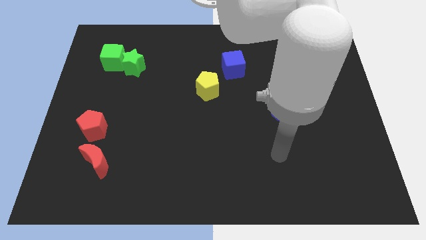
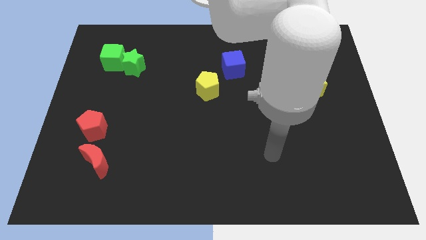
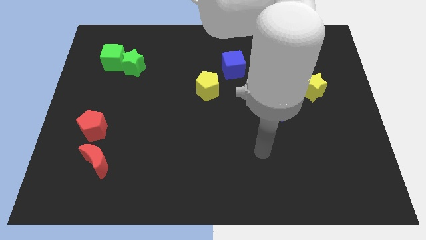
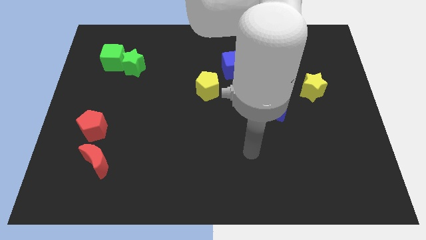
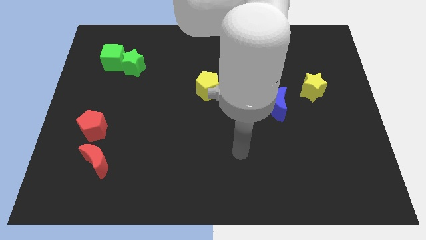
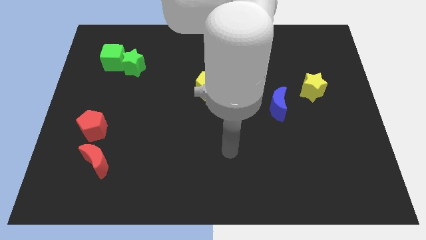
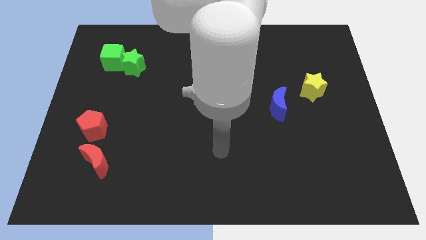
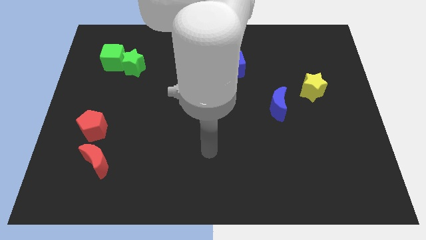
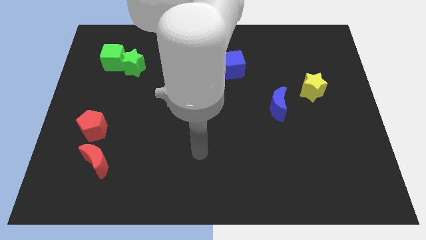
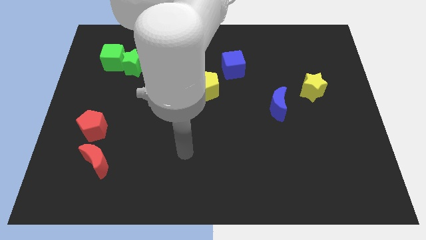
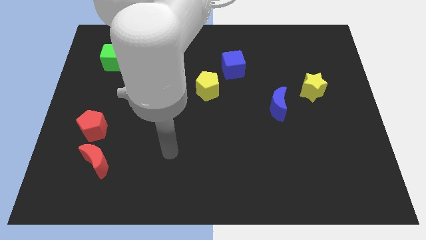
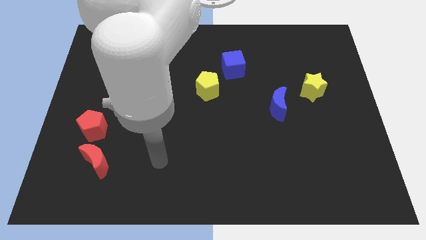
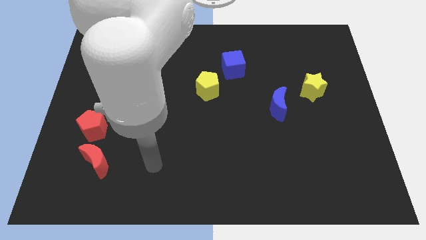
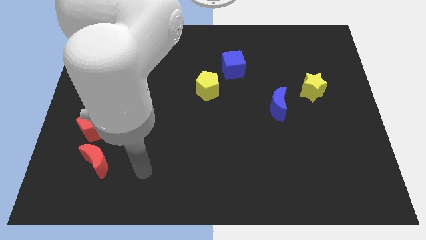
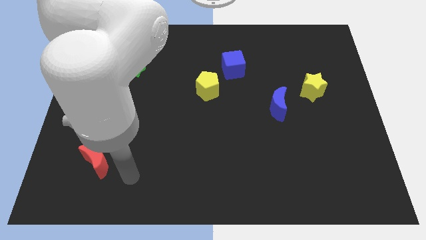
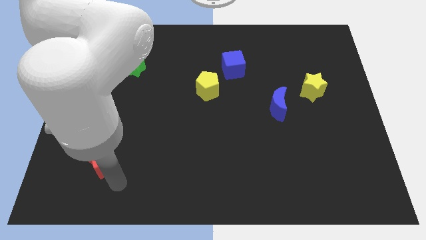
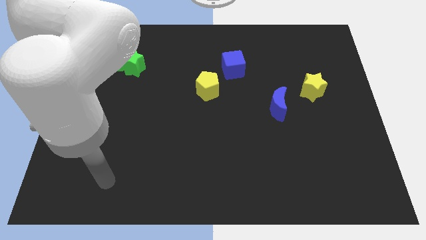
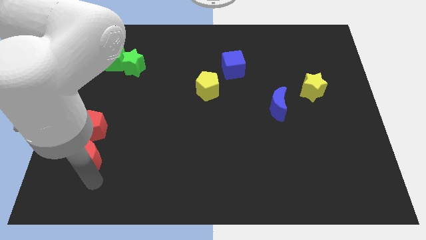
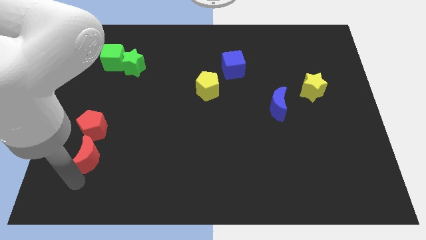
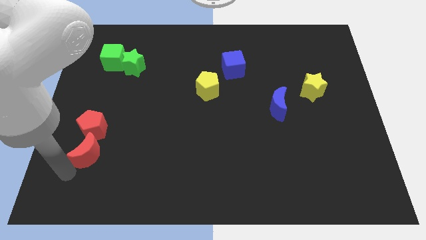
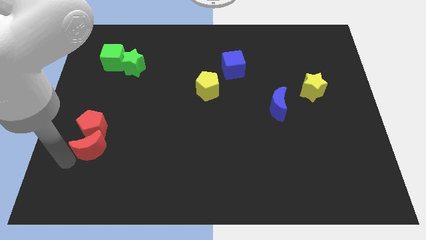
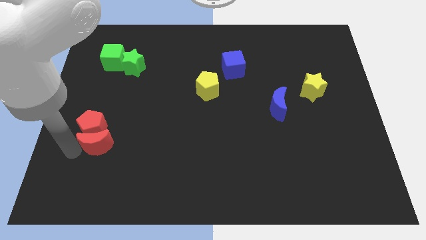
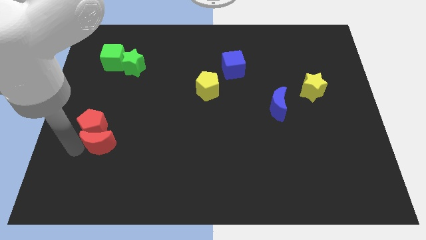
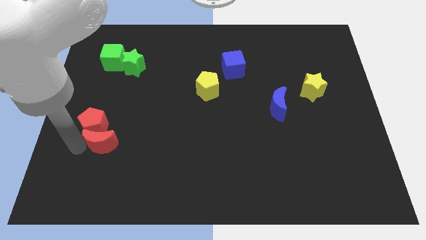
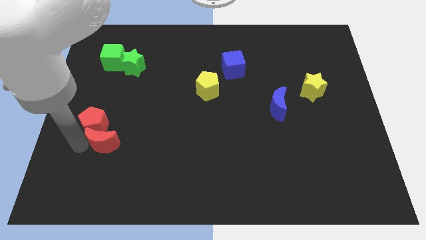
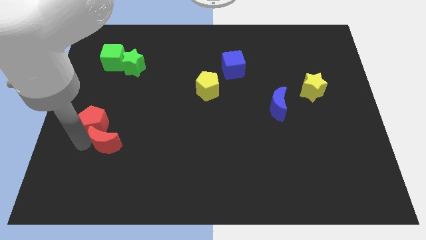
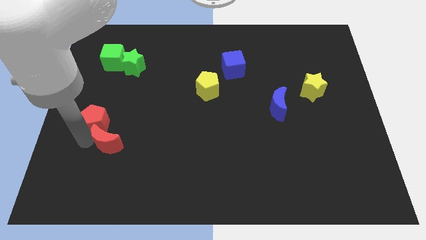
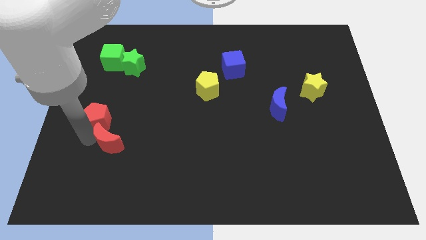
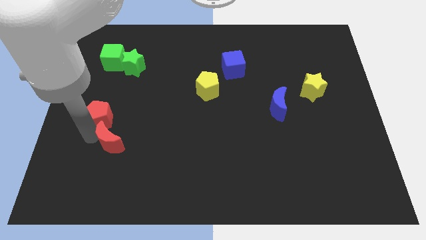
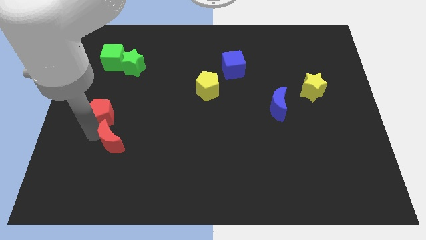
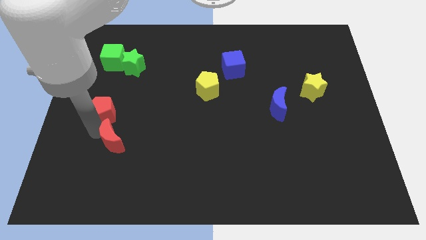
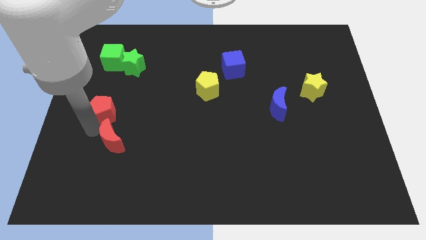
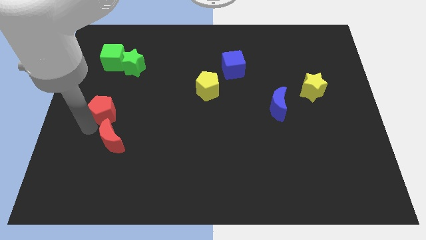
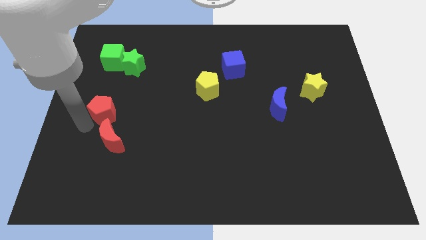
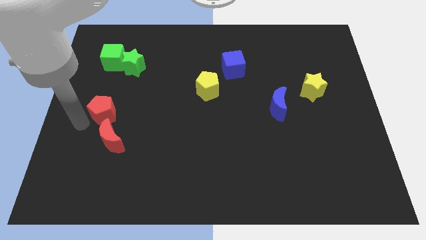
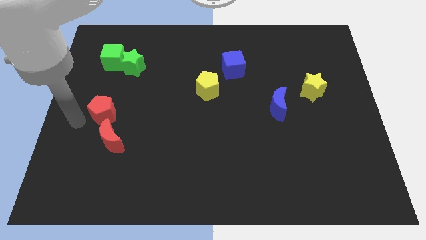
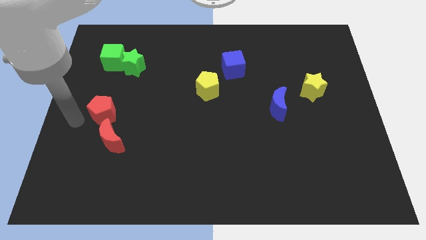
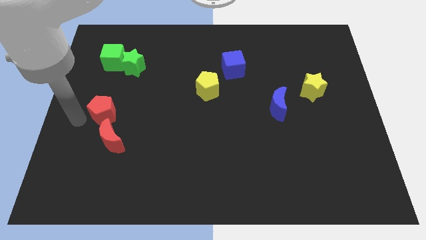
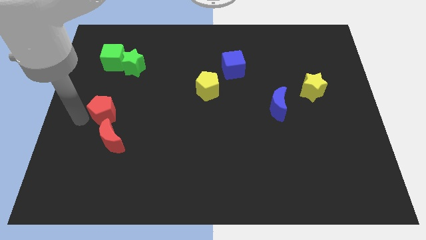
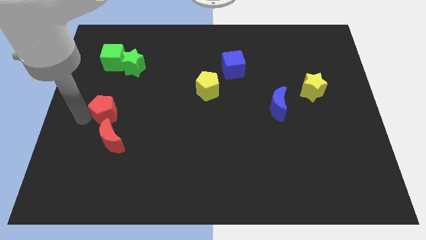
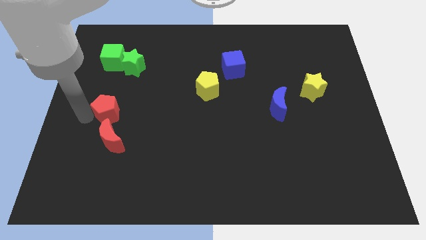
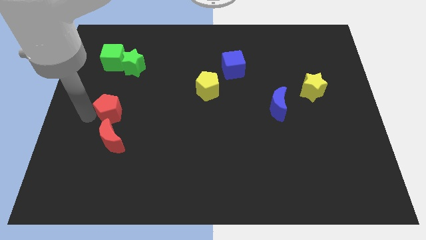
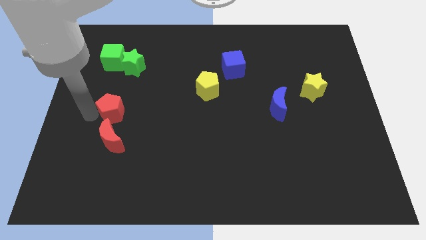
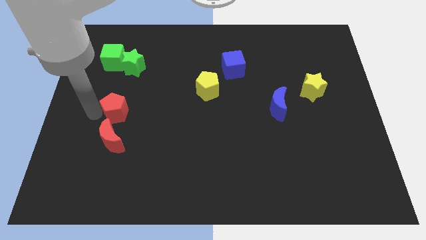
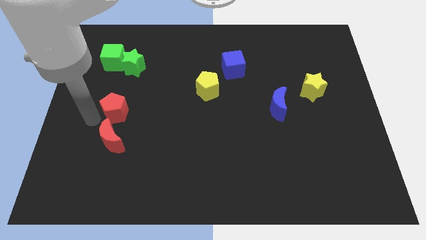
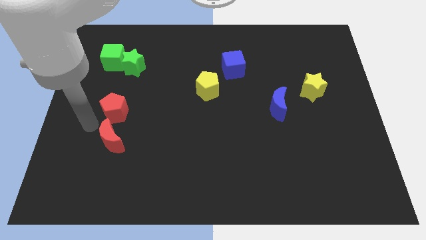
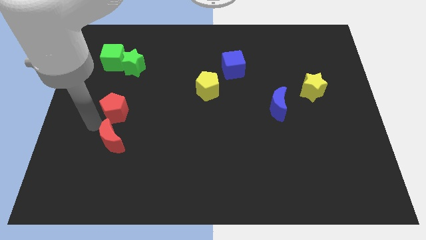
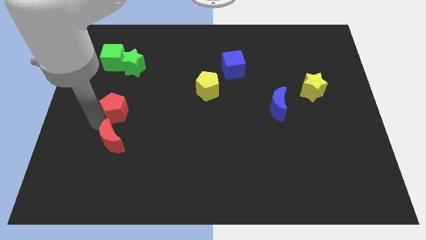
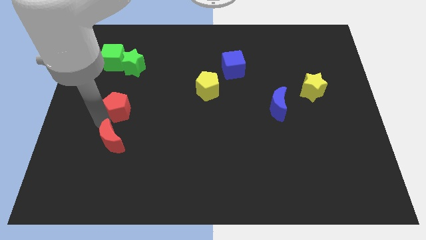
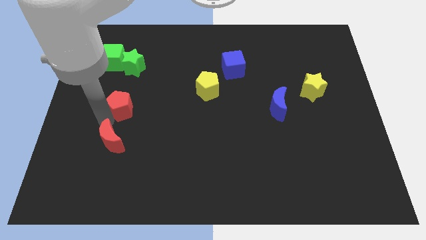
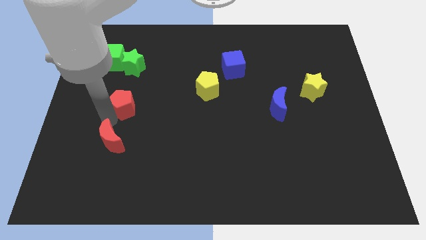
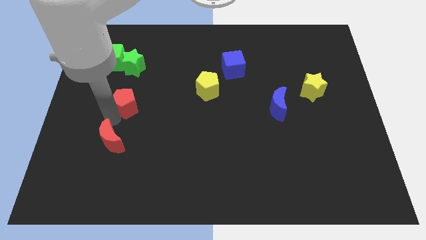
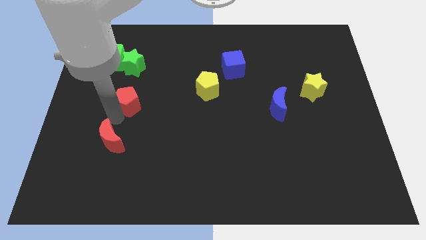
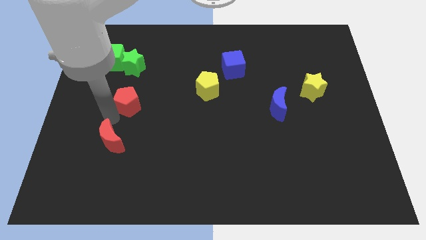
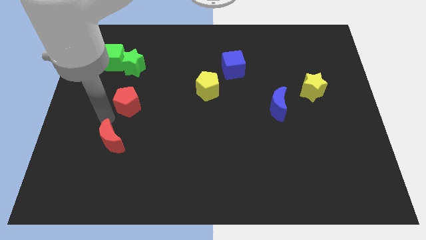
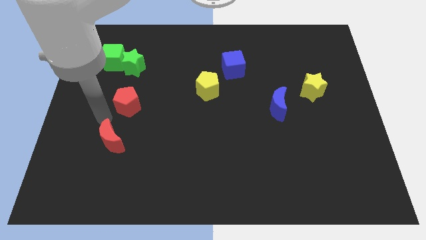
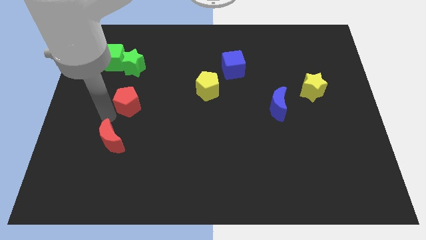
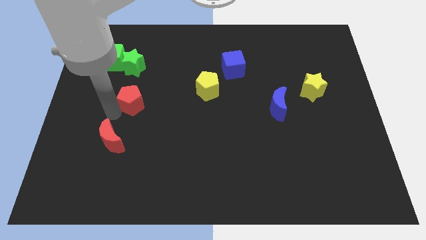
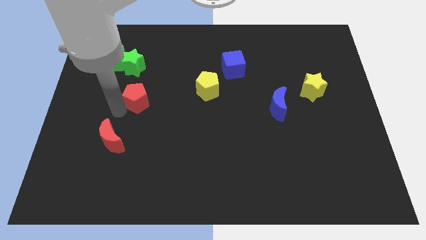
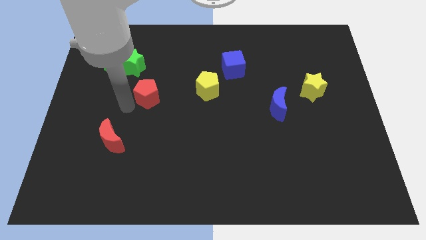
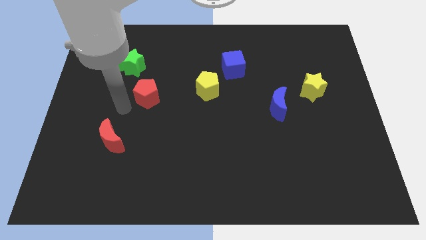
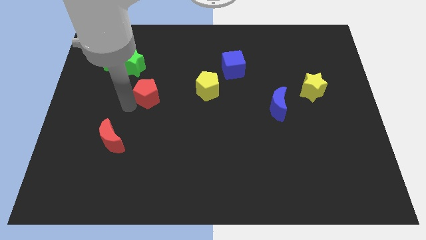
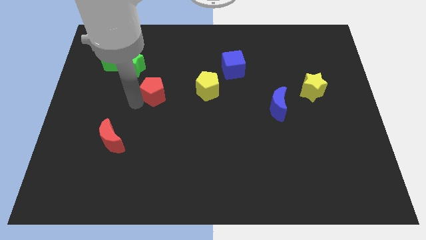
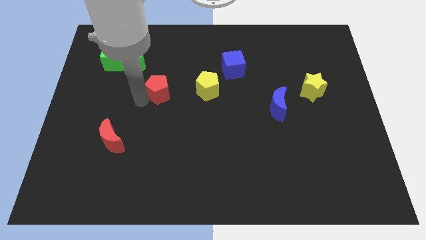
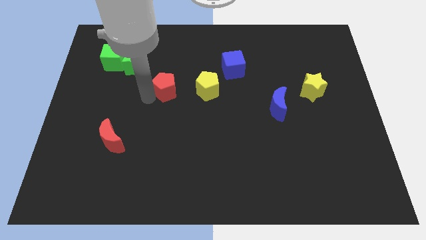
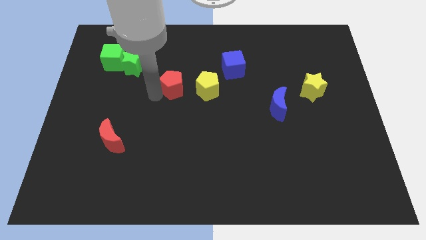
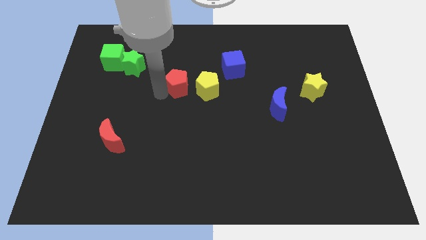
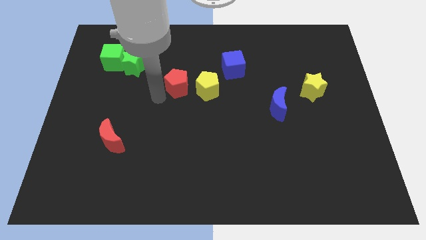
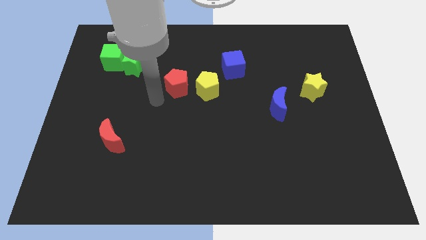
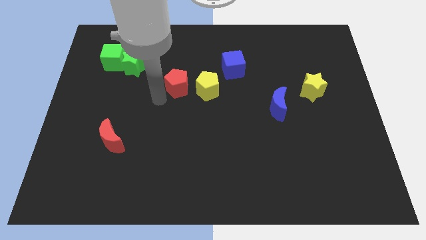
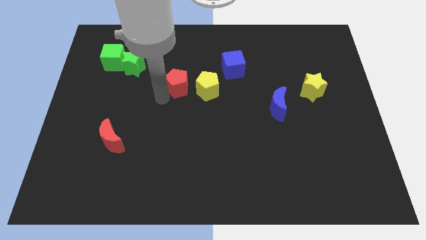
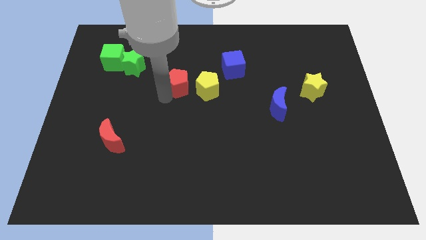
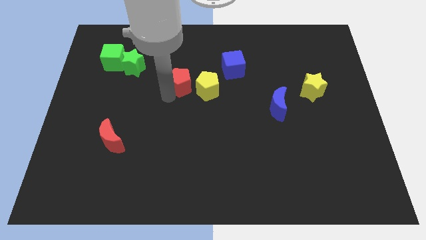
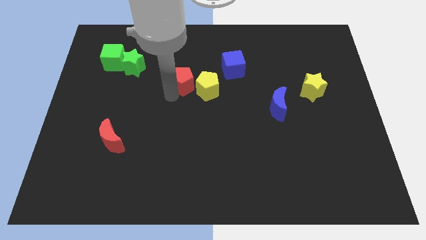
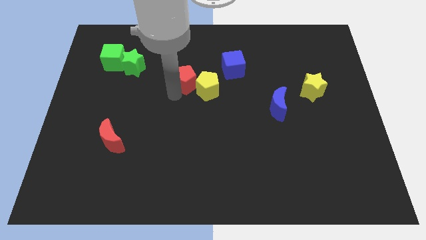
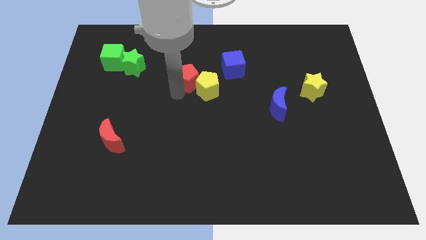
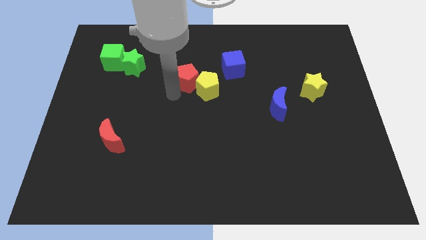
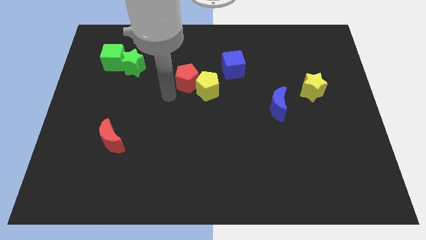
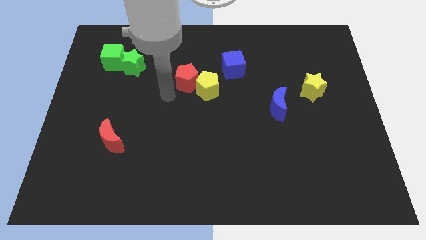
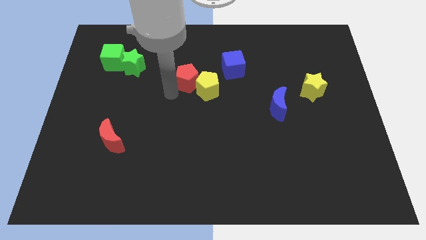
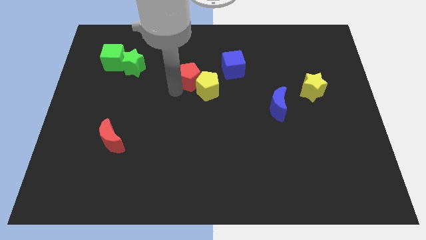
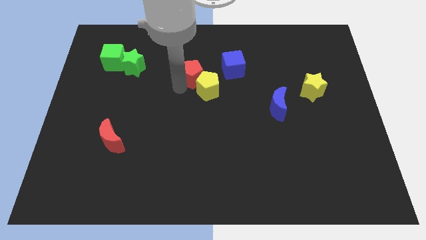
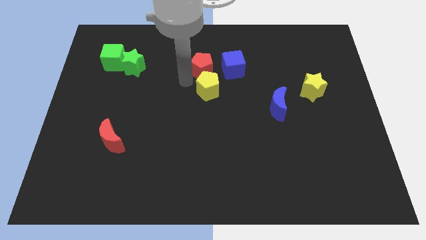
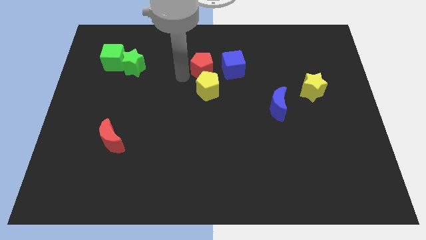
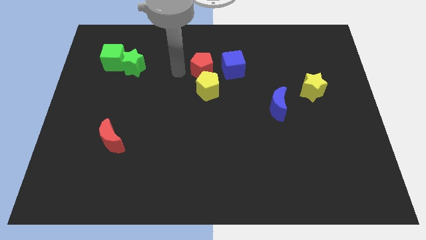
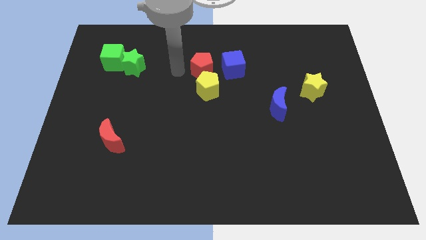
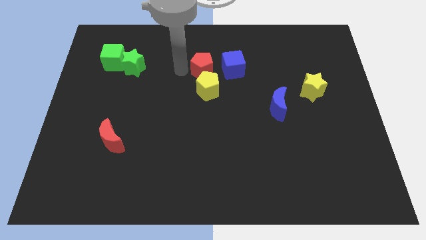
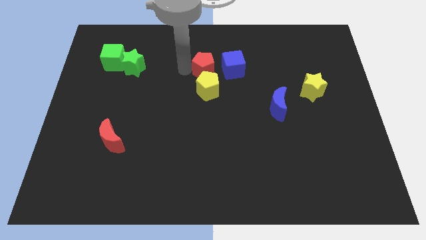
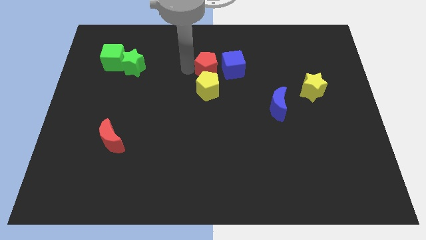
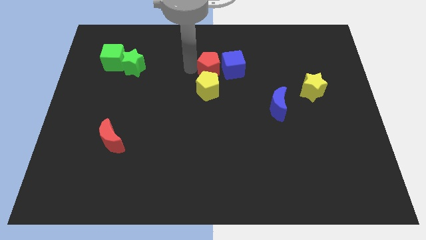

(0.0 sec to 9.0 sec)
push the red pentagon to the blue cube
